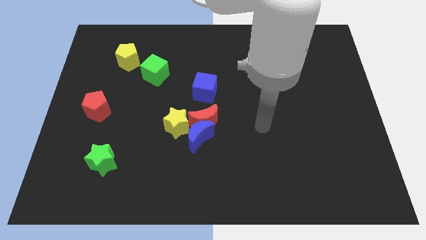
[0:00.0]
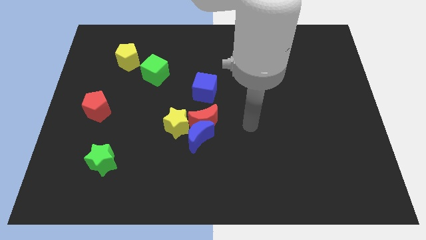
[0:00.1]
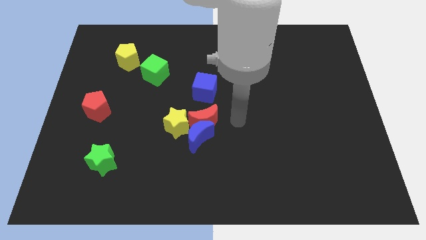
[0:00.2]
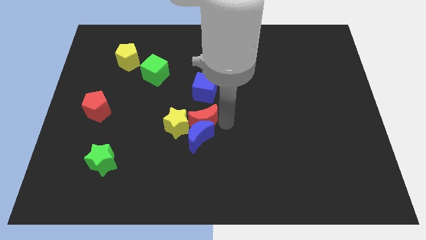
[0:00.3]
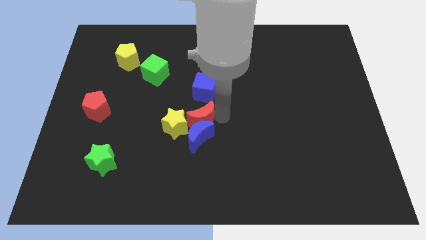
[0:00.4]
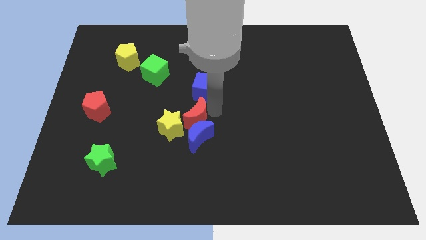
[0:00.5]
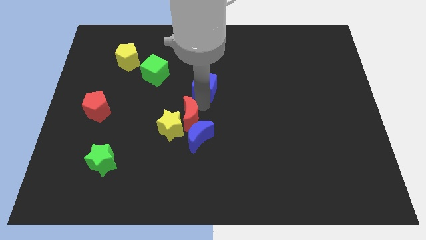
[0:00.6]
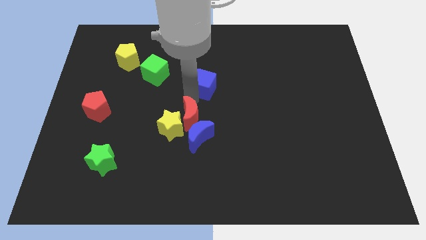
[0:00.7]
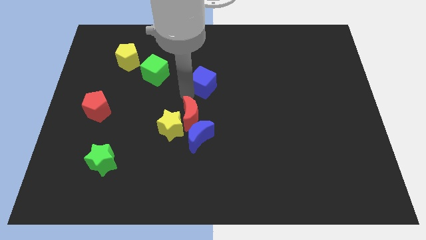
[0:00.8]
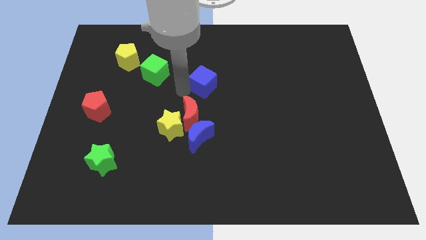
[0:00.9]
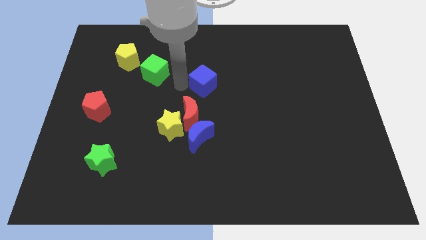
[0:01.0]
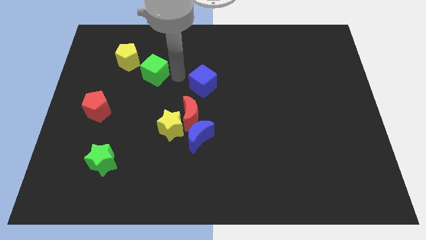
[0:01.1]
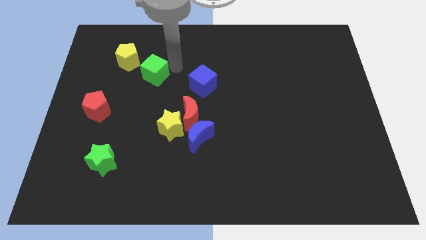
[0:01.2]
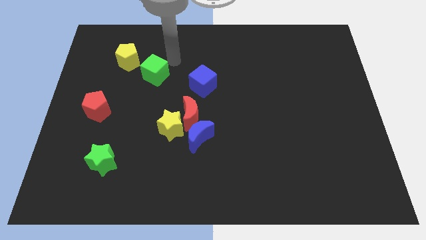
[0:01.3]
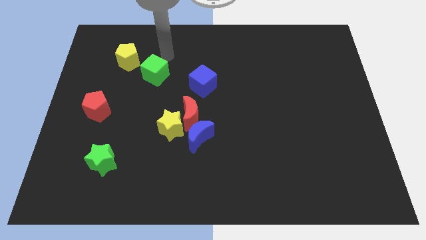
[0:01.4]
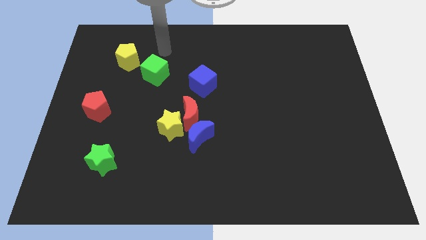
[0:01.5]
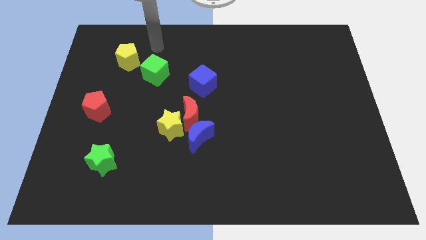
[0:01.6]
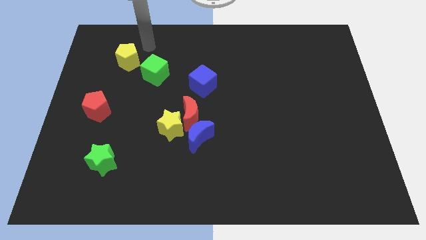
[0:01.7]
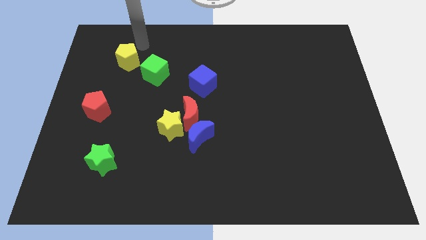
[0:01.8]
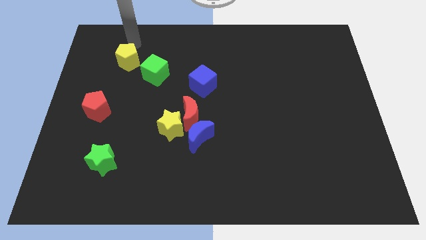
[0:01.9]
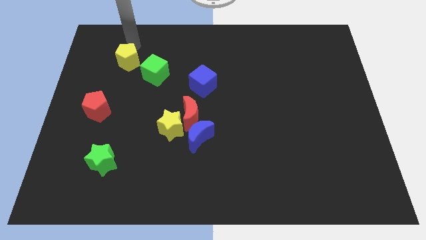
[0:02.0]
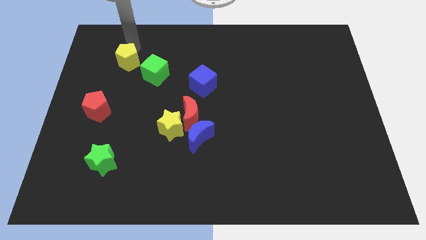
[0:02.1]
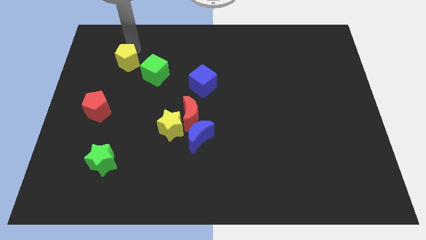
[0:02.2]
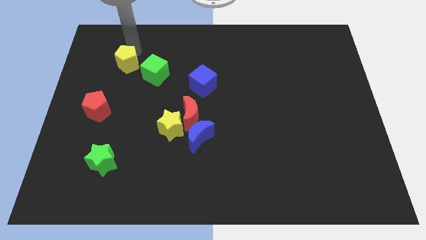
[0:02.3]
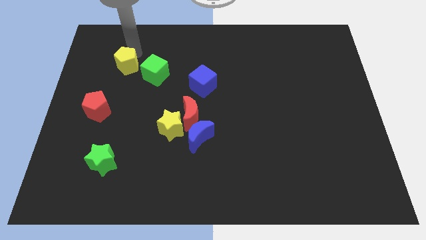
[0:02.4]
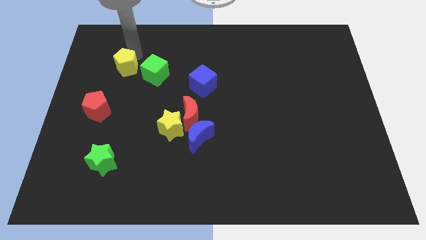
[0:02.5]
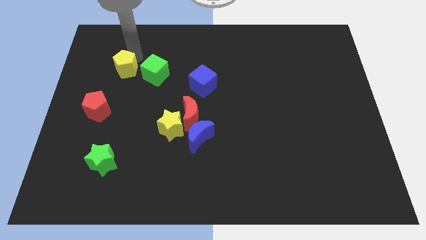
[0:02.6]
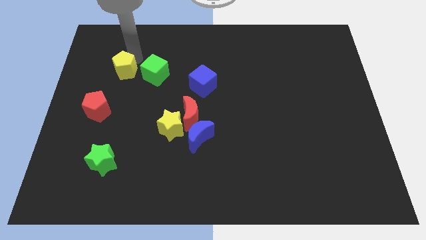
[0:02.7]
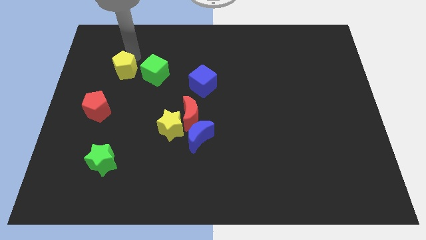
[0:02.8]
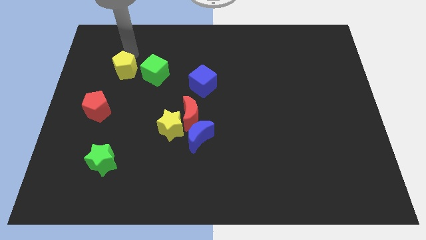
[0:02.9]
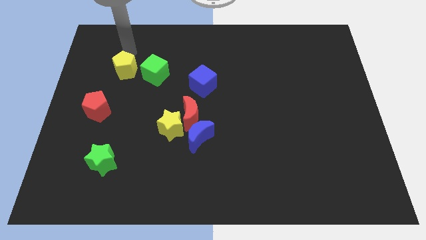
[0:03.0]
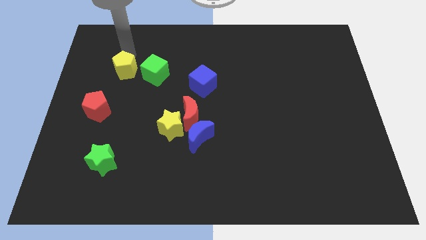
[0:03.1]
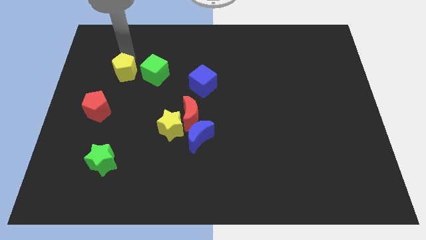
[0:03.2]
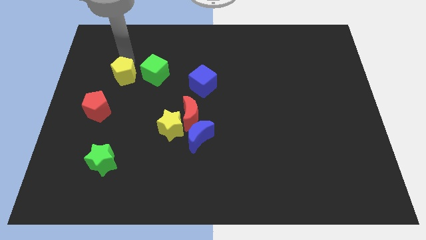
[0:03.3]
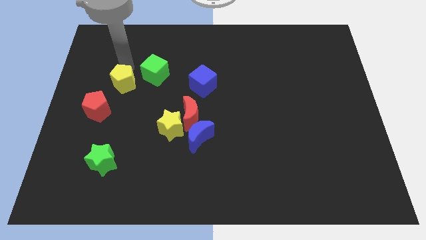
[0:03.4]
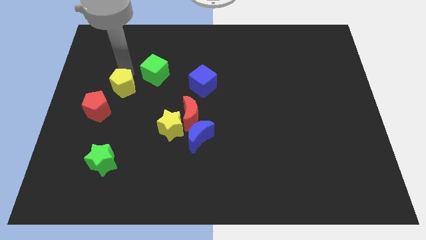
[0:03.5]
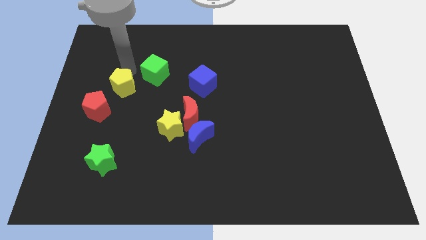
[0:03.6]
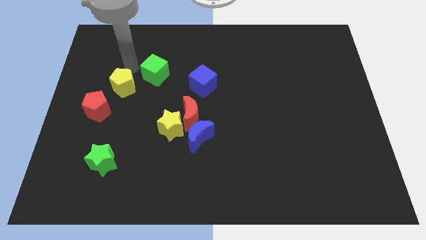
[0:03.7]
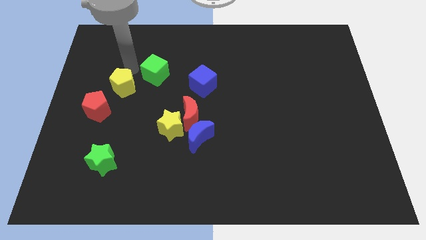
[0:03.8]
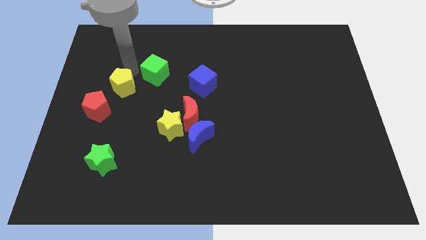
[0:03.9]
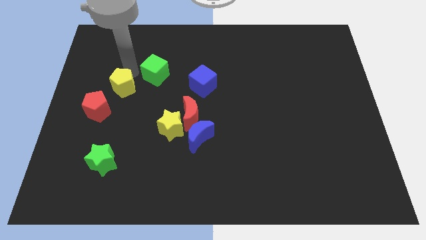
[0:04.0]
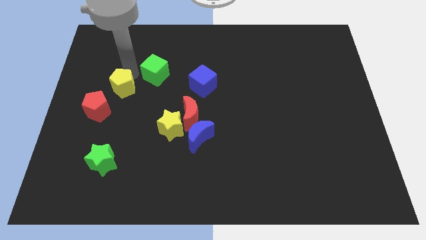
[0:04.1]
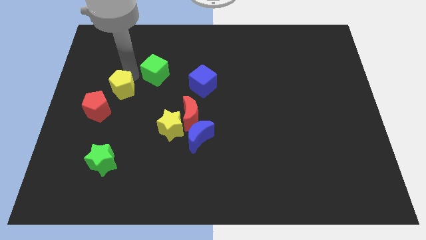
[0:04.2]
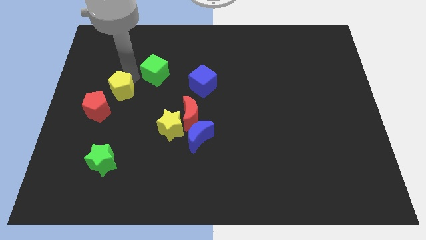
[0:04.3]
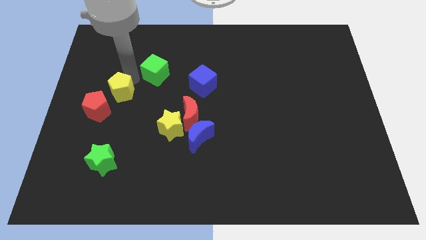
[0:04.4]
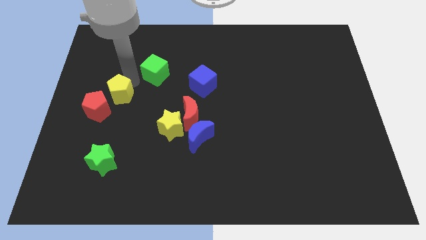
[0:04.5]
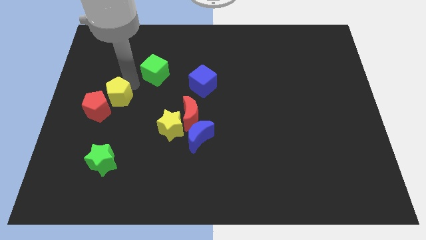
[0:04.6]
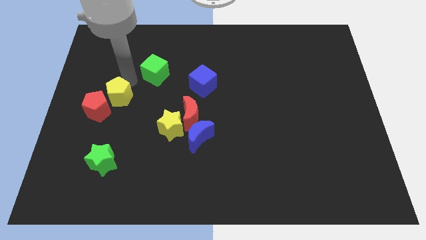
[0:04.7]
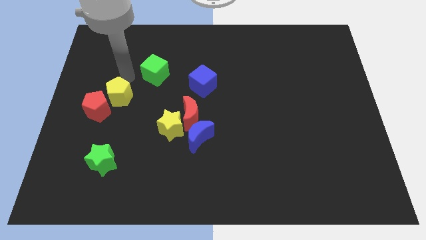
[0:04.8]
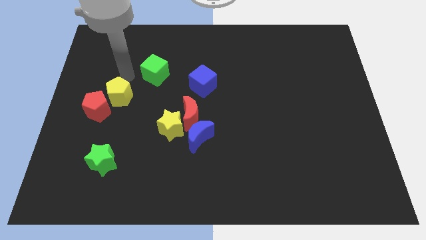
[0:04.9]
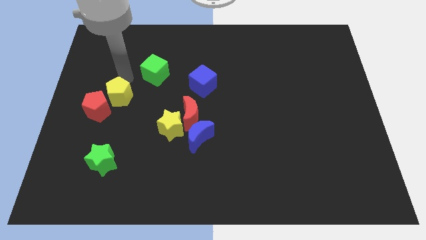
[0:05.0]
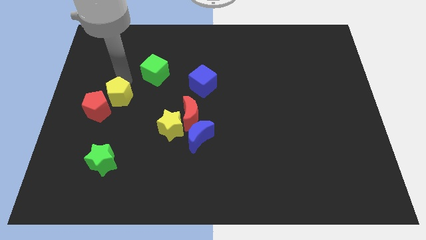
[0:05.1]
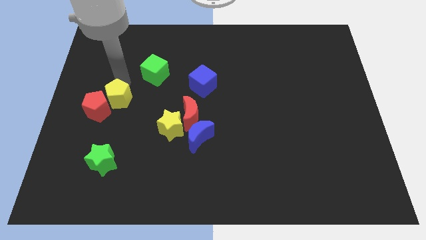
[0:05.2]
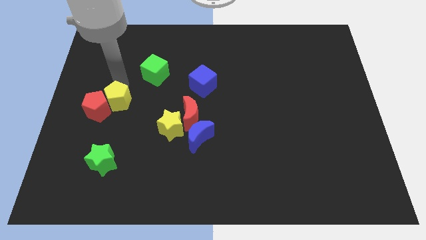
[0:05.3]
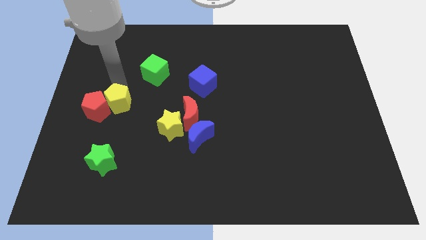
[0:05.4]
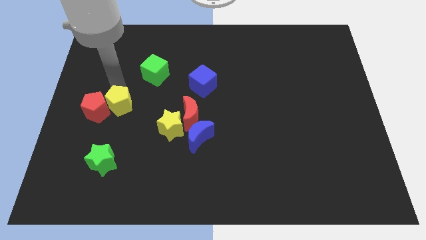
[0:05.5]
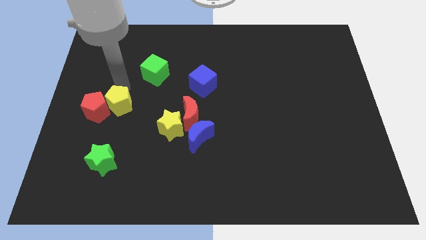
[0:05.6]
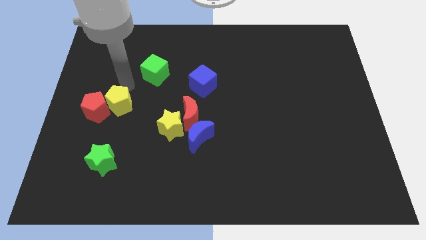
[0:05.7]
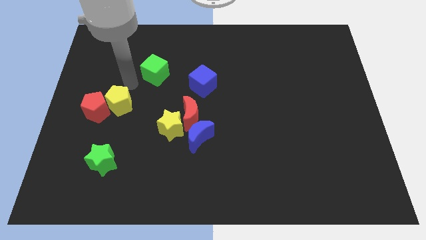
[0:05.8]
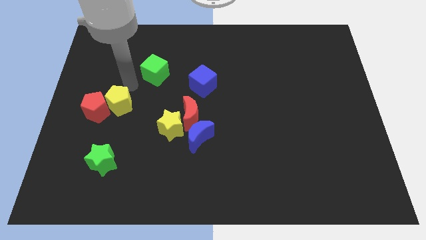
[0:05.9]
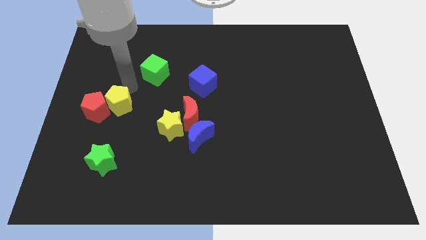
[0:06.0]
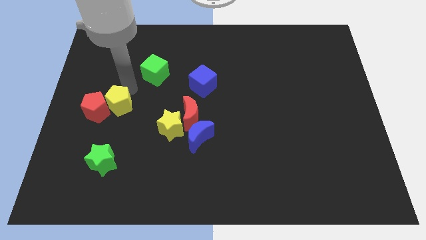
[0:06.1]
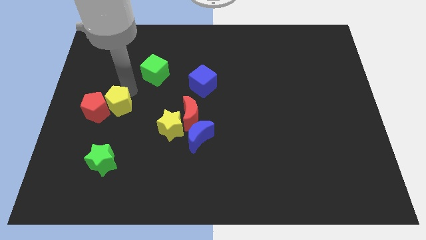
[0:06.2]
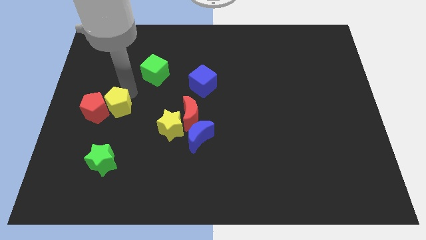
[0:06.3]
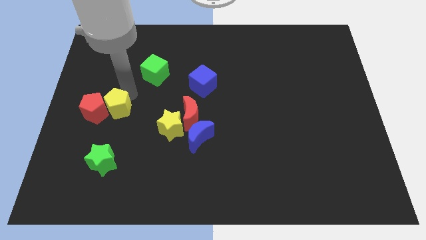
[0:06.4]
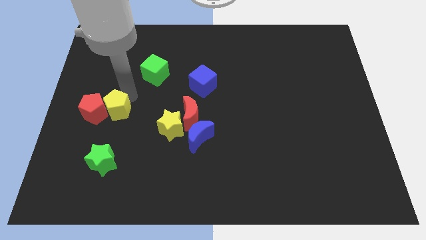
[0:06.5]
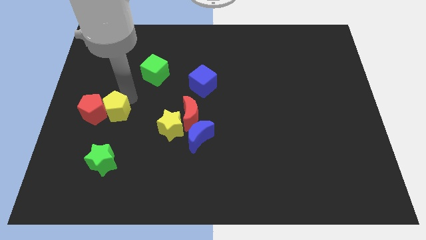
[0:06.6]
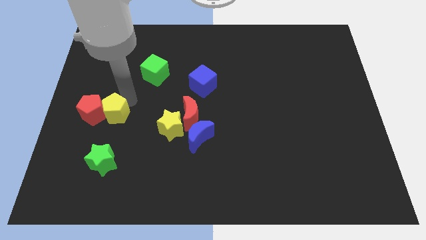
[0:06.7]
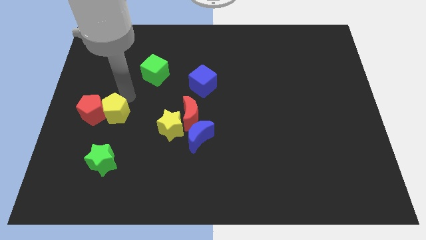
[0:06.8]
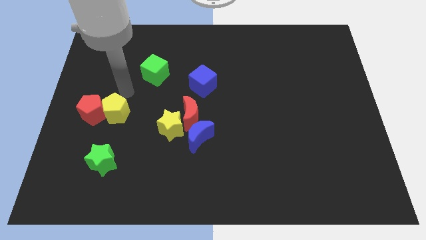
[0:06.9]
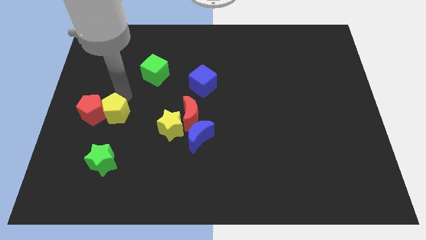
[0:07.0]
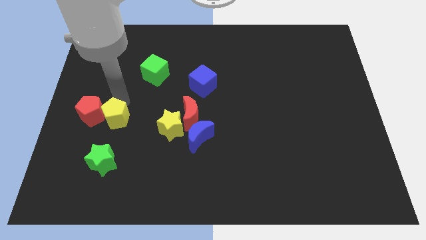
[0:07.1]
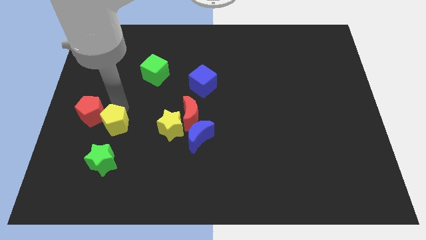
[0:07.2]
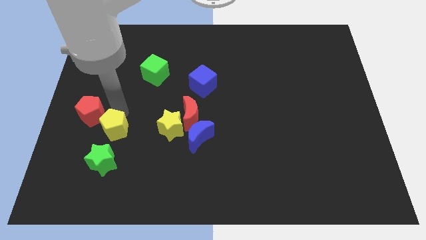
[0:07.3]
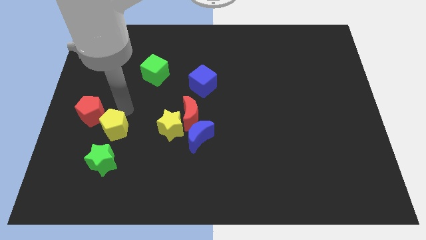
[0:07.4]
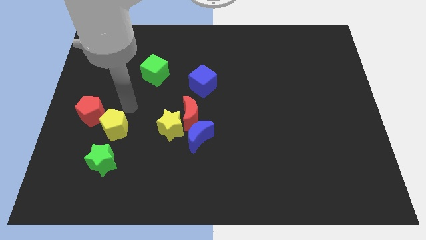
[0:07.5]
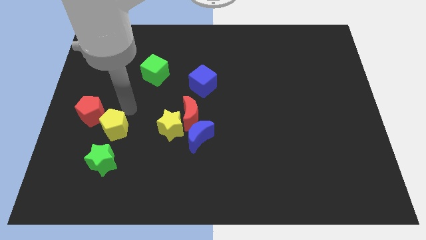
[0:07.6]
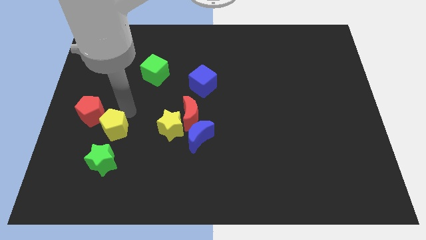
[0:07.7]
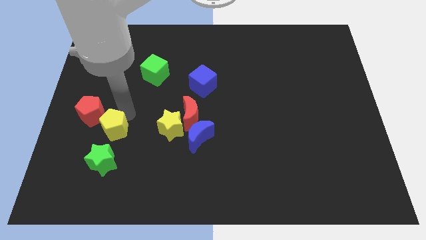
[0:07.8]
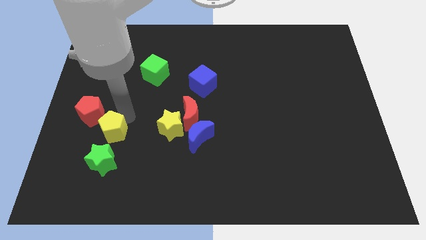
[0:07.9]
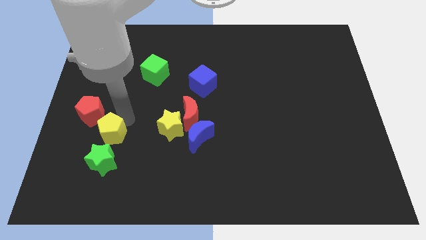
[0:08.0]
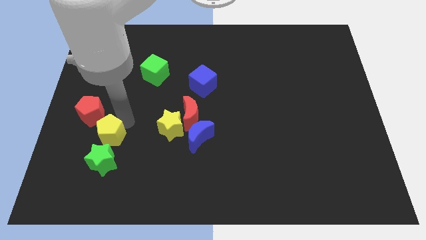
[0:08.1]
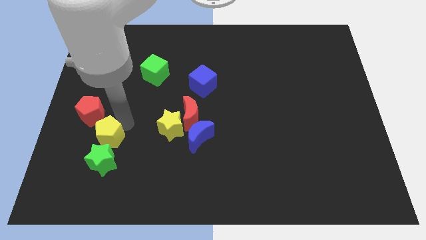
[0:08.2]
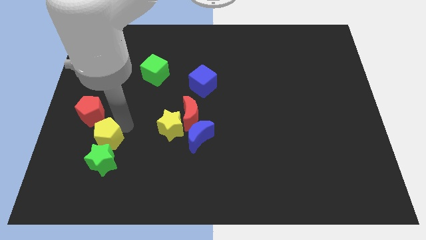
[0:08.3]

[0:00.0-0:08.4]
push the yellow pentagon towards the green star
